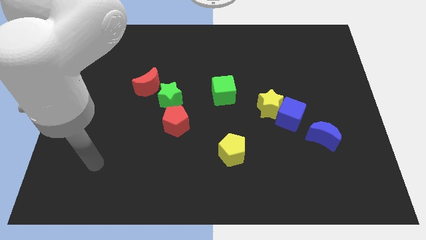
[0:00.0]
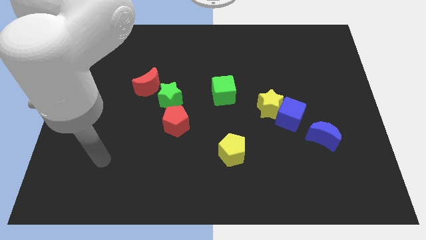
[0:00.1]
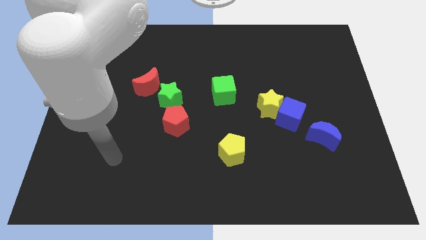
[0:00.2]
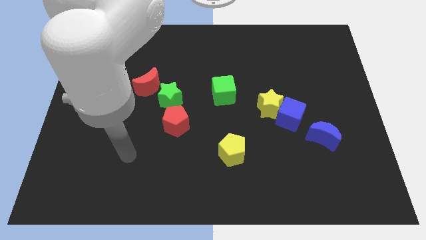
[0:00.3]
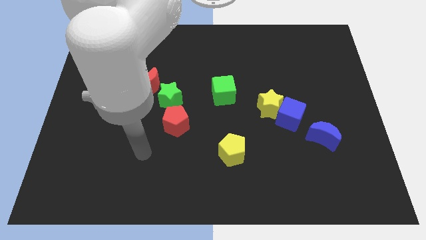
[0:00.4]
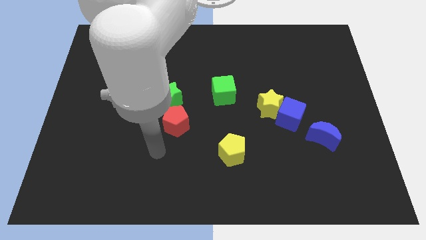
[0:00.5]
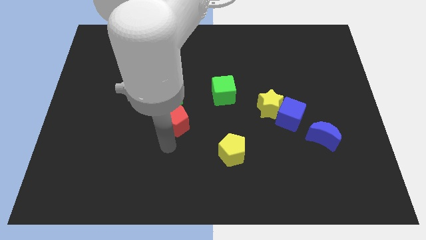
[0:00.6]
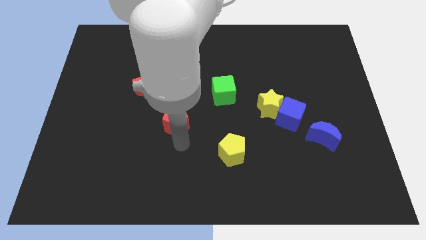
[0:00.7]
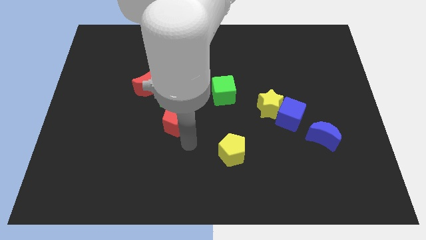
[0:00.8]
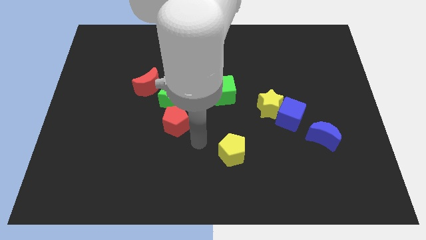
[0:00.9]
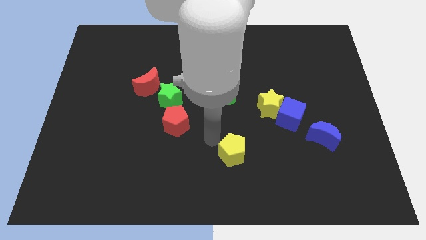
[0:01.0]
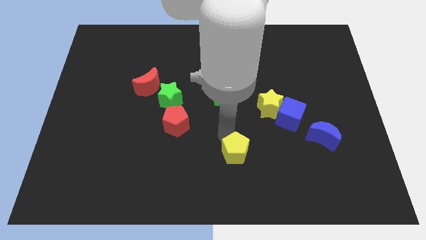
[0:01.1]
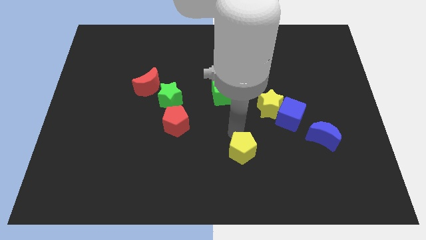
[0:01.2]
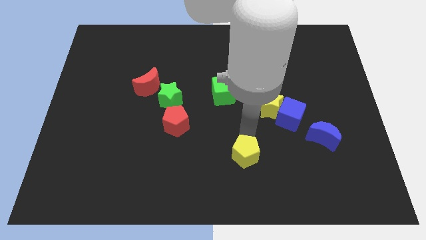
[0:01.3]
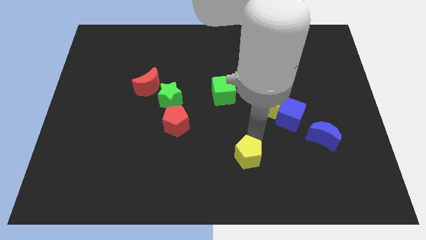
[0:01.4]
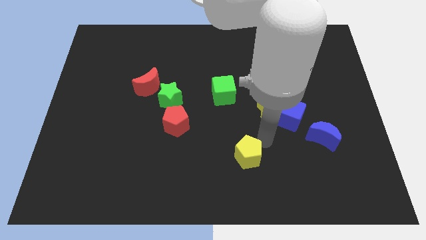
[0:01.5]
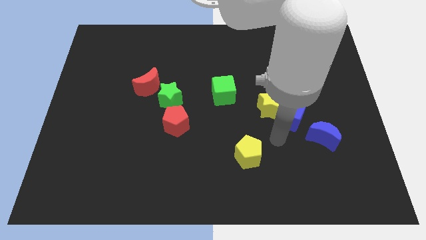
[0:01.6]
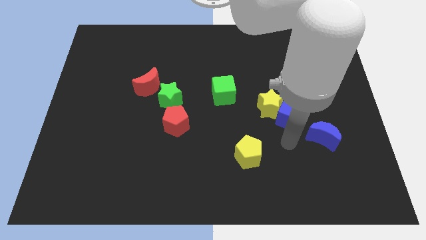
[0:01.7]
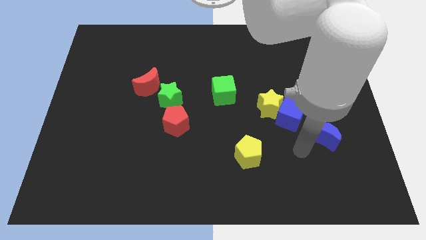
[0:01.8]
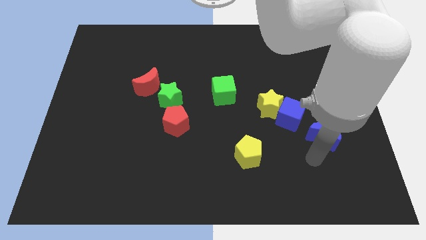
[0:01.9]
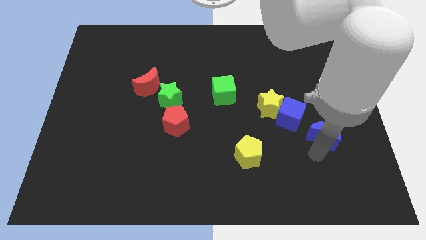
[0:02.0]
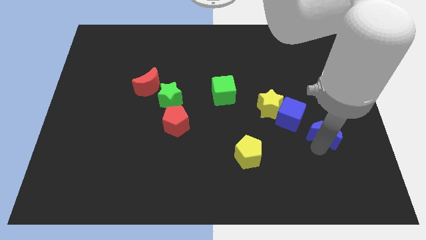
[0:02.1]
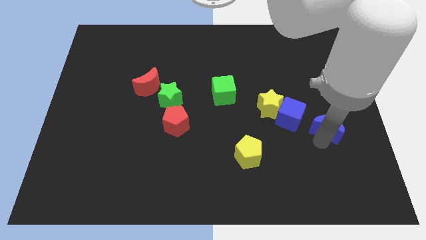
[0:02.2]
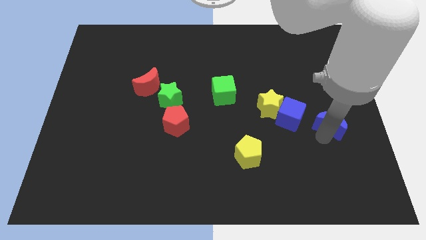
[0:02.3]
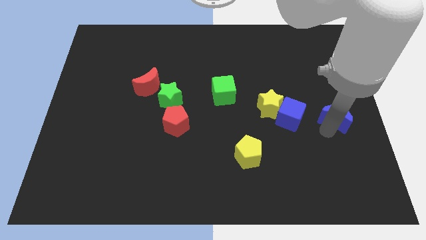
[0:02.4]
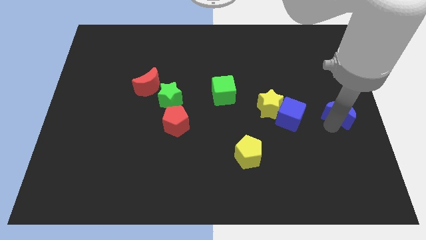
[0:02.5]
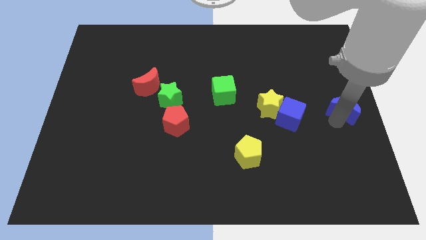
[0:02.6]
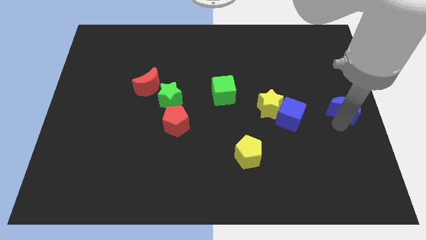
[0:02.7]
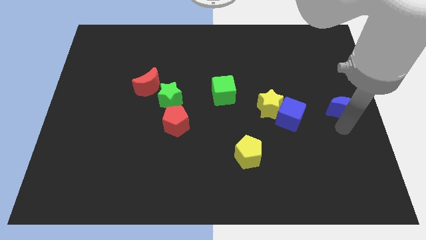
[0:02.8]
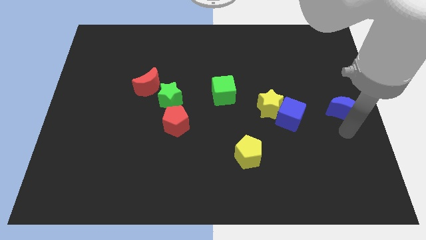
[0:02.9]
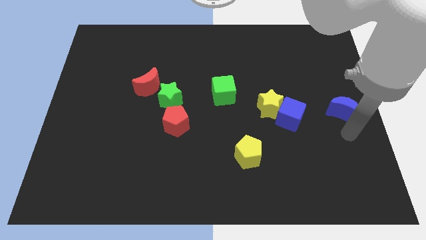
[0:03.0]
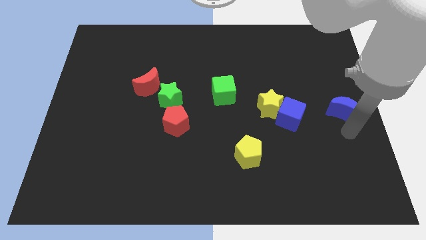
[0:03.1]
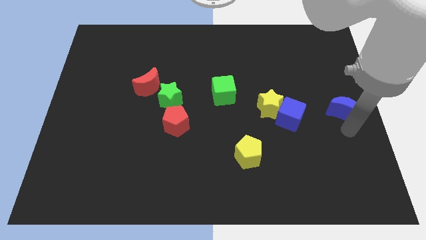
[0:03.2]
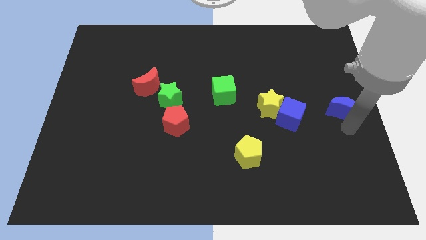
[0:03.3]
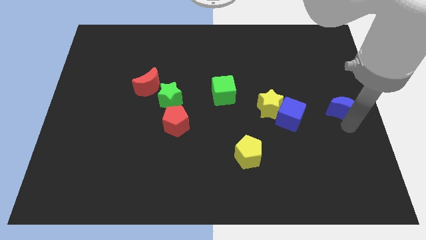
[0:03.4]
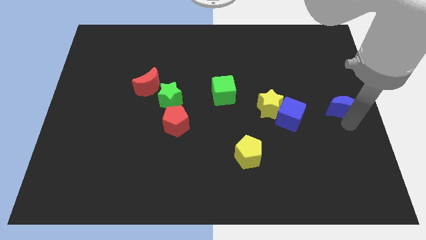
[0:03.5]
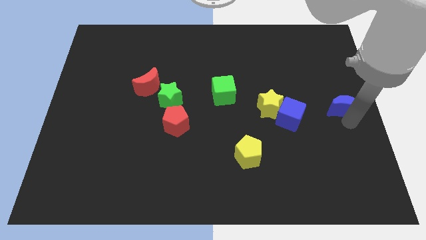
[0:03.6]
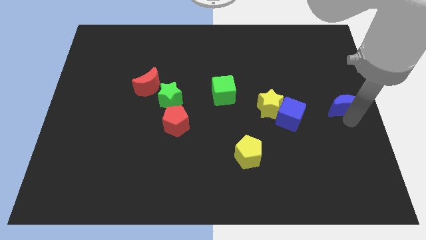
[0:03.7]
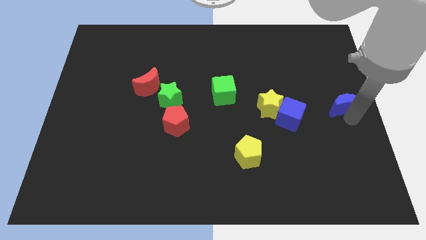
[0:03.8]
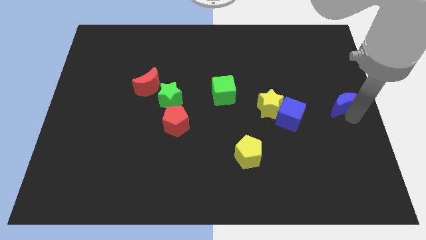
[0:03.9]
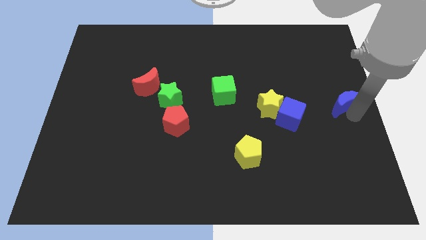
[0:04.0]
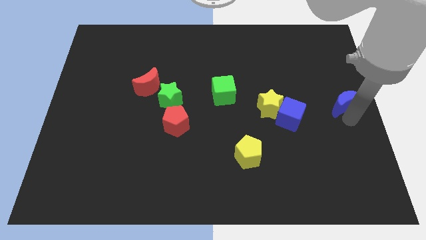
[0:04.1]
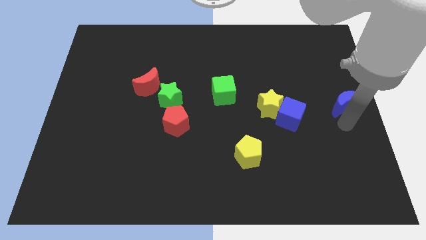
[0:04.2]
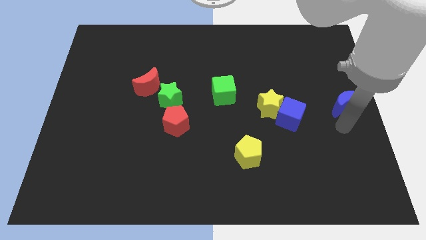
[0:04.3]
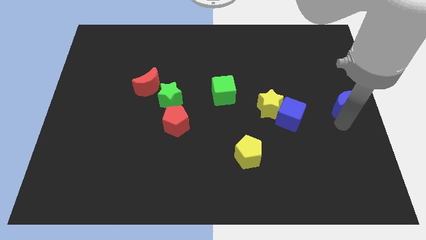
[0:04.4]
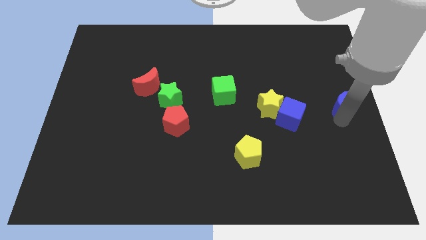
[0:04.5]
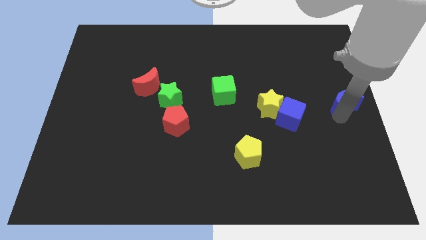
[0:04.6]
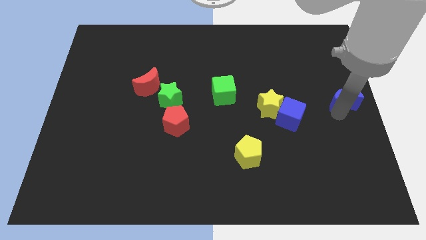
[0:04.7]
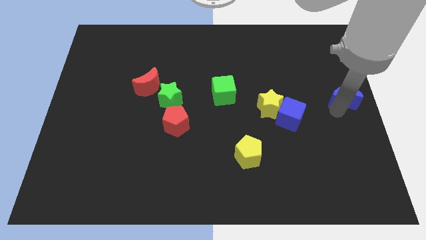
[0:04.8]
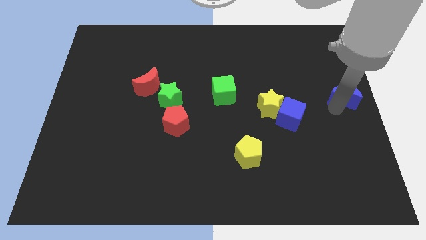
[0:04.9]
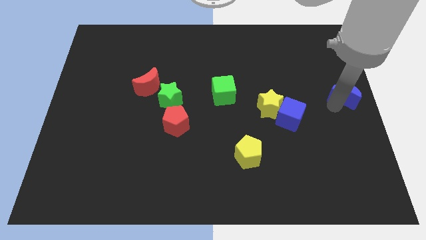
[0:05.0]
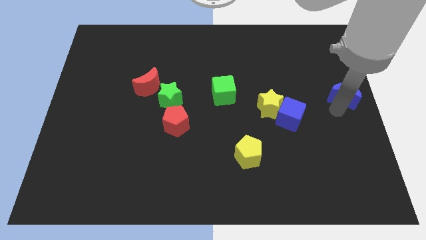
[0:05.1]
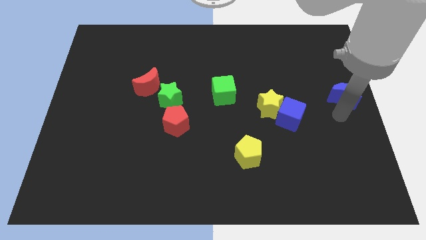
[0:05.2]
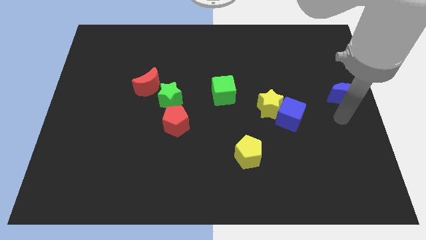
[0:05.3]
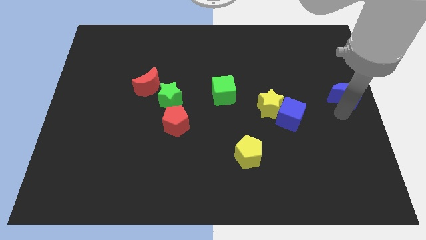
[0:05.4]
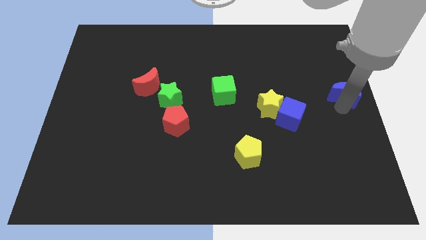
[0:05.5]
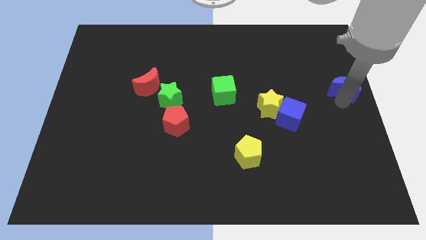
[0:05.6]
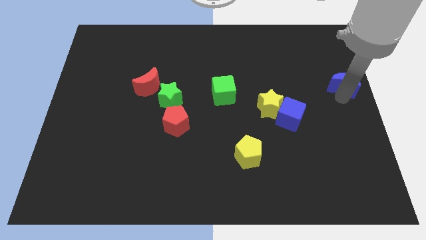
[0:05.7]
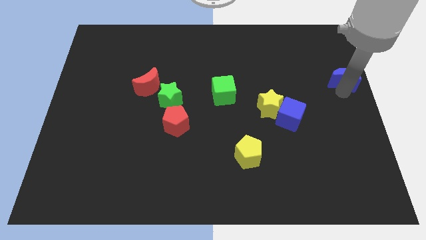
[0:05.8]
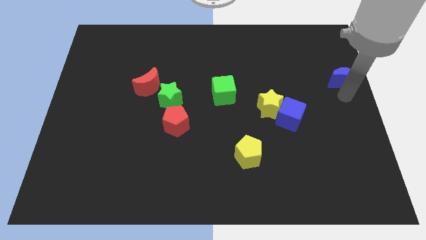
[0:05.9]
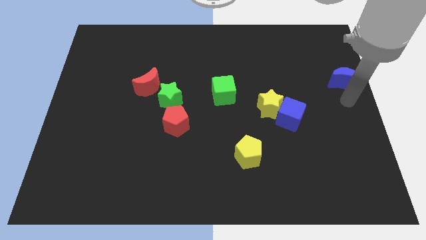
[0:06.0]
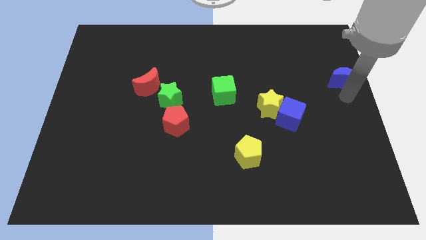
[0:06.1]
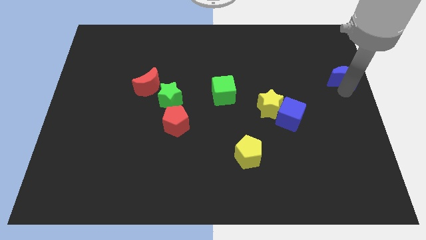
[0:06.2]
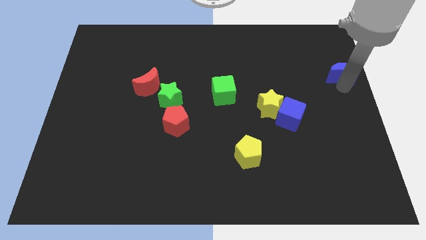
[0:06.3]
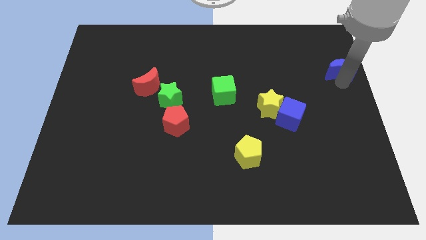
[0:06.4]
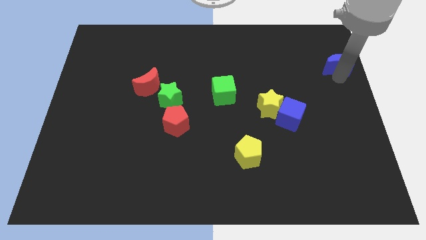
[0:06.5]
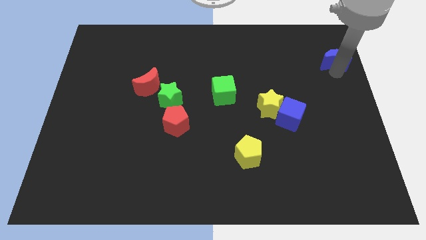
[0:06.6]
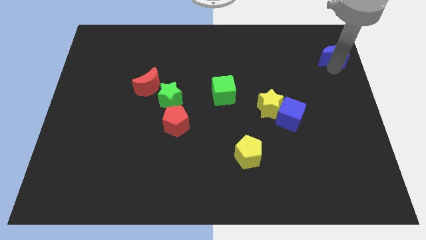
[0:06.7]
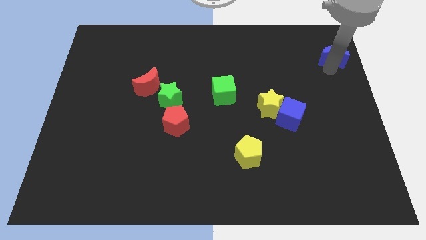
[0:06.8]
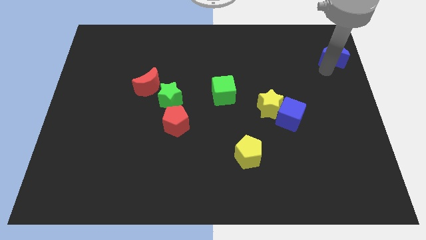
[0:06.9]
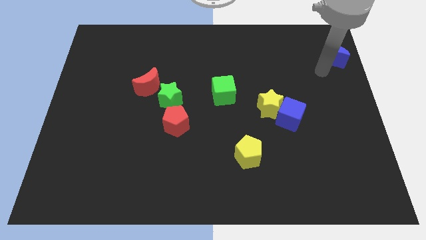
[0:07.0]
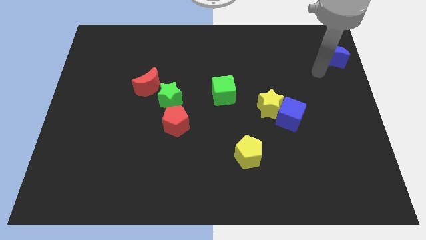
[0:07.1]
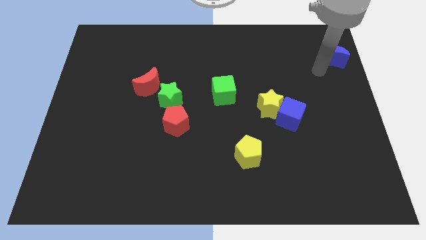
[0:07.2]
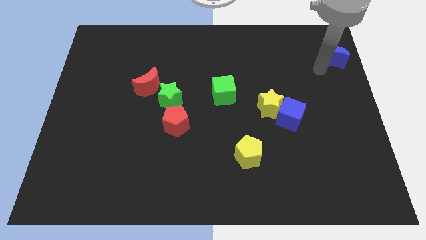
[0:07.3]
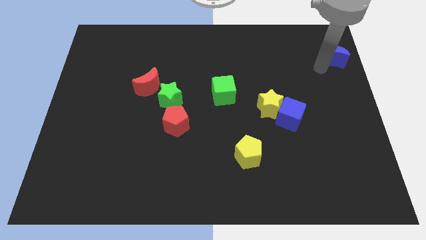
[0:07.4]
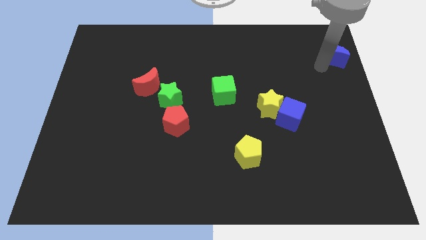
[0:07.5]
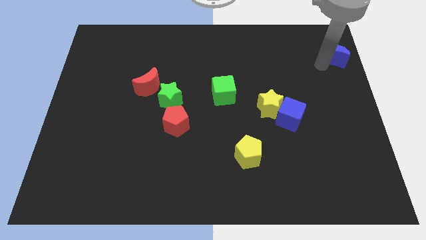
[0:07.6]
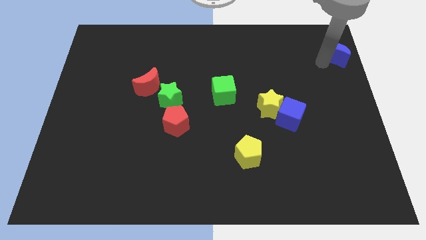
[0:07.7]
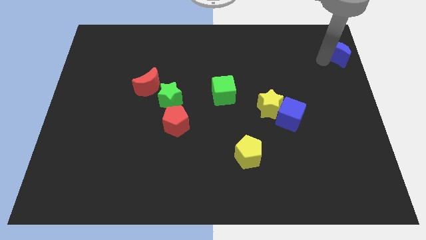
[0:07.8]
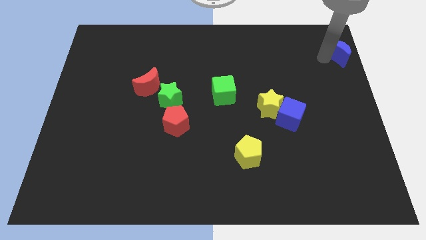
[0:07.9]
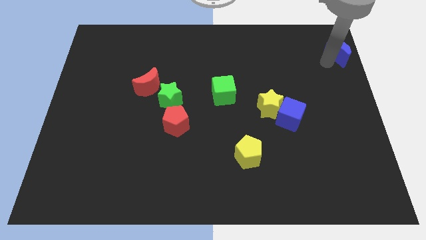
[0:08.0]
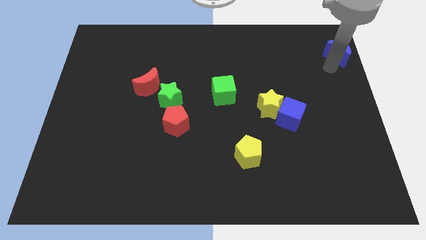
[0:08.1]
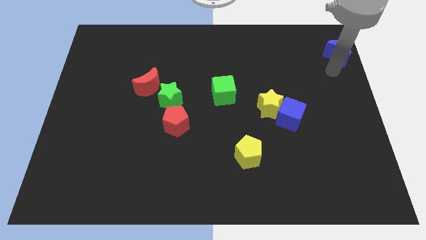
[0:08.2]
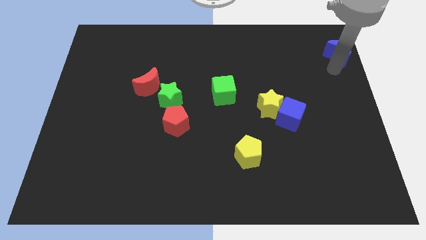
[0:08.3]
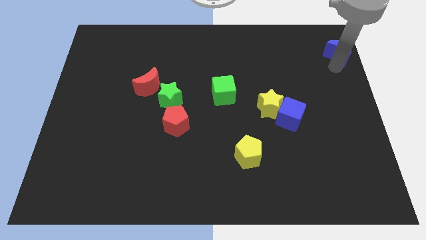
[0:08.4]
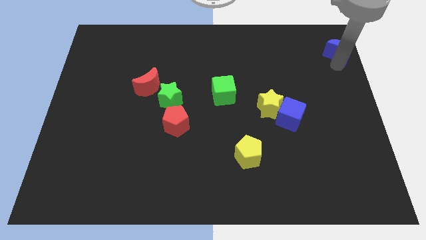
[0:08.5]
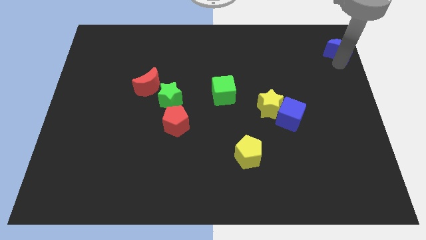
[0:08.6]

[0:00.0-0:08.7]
push the blue moon to the top right corner
